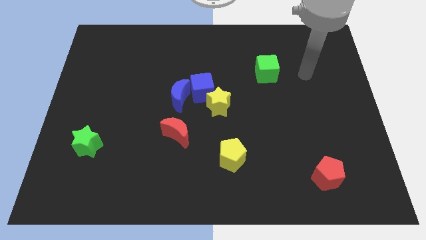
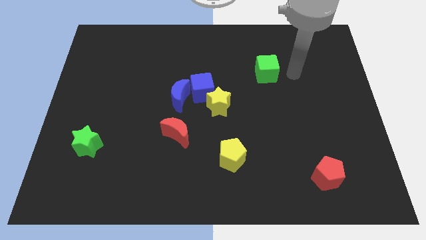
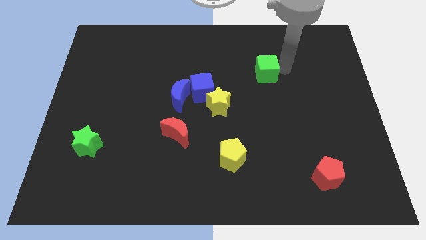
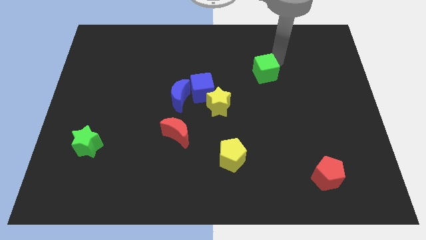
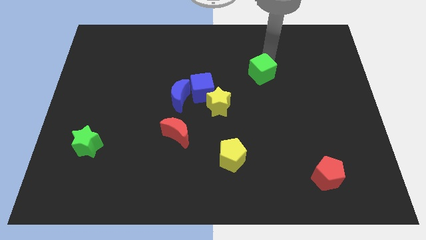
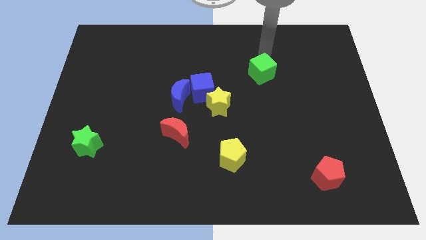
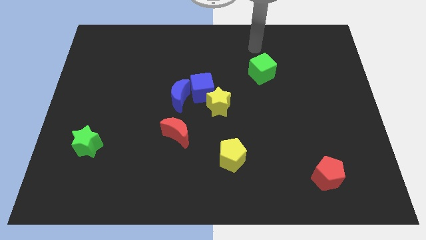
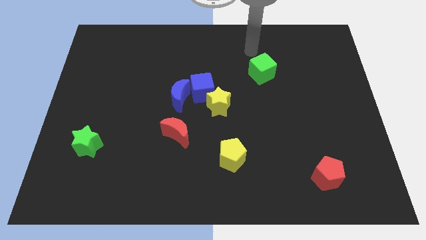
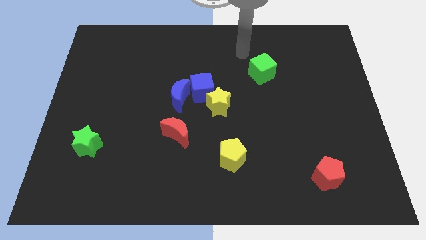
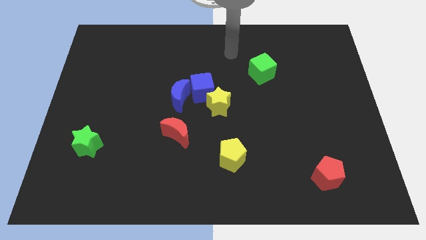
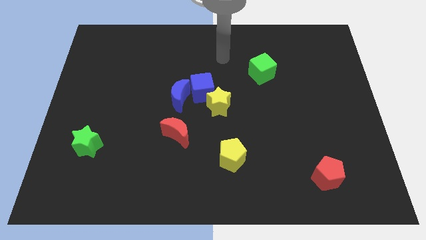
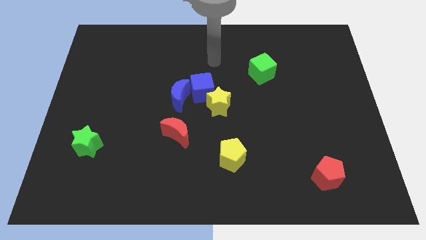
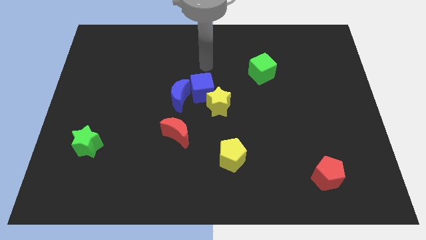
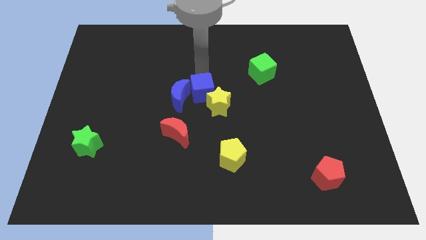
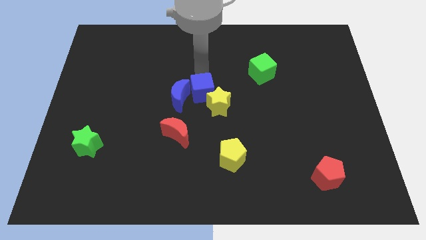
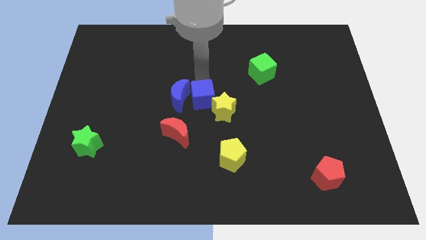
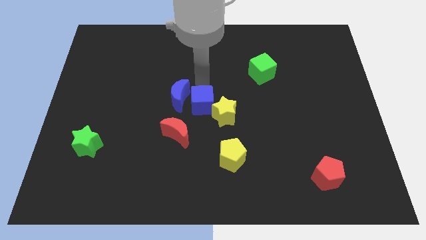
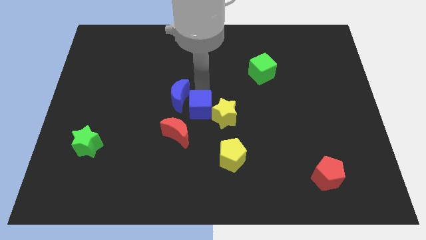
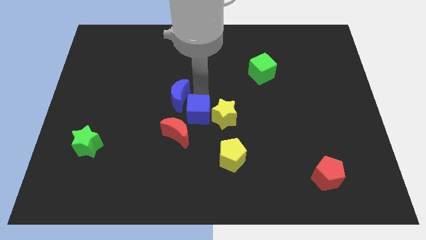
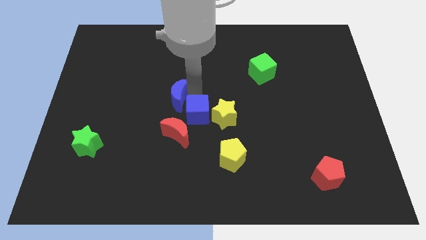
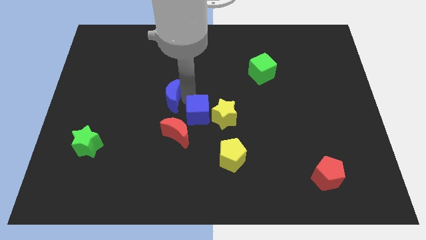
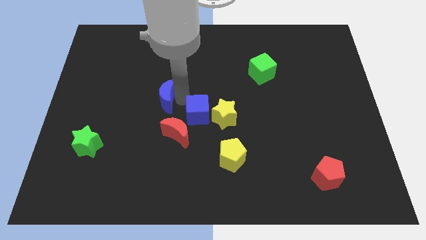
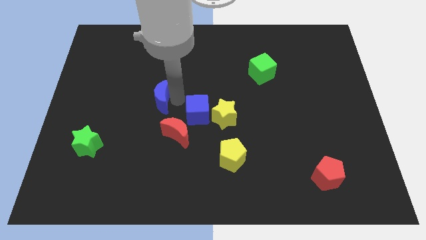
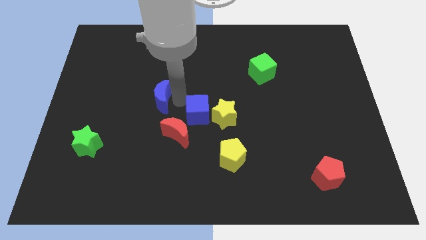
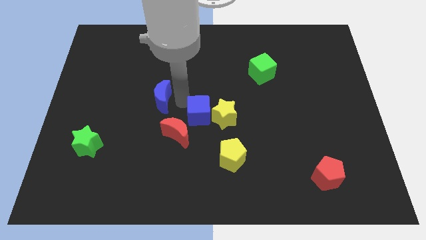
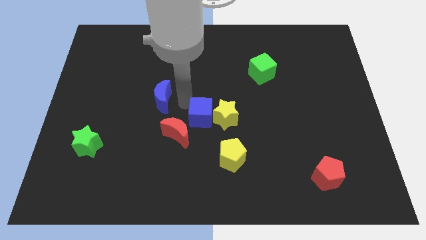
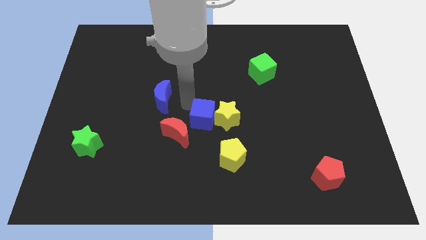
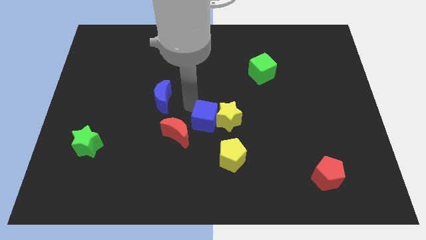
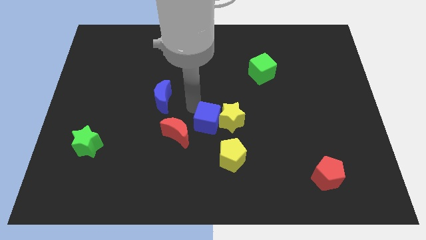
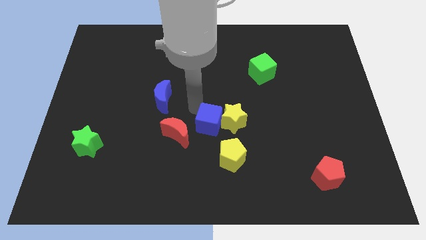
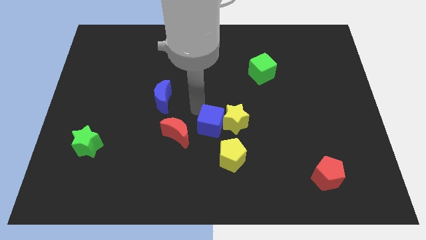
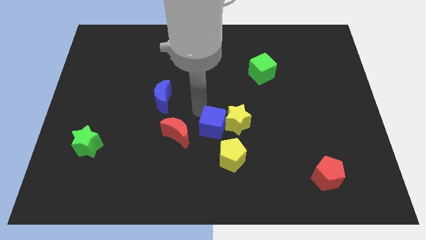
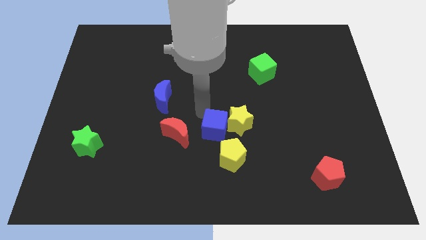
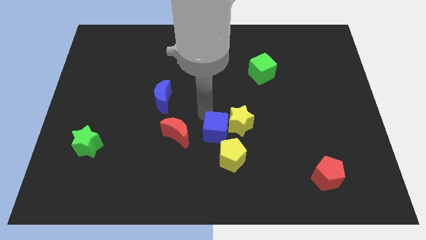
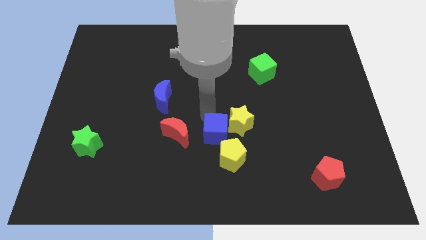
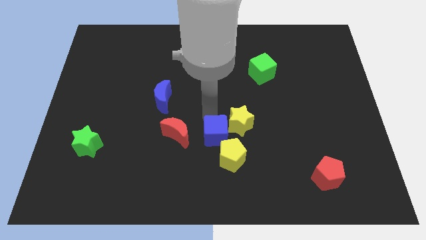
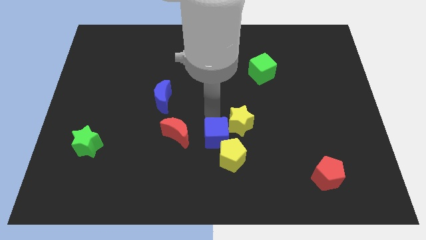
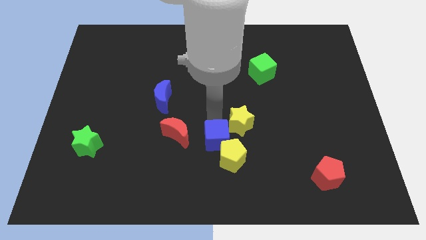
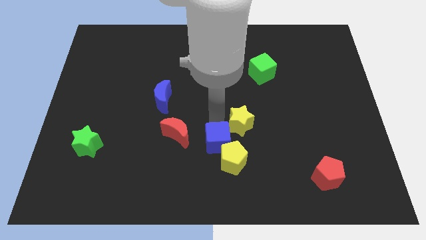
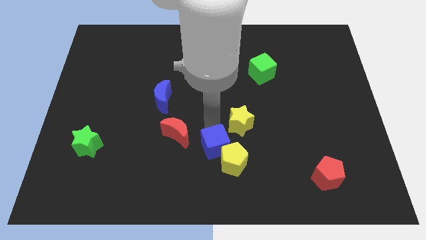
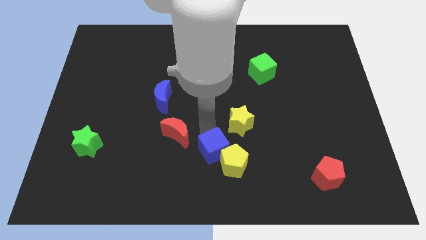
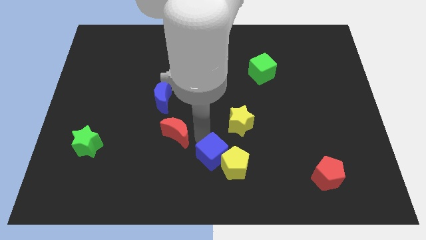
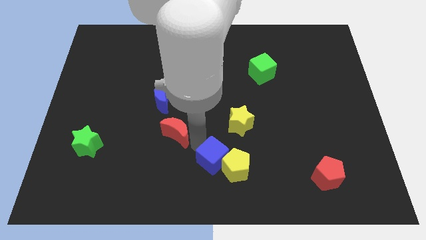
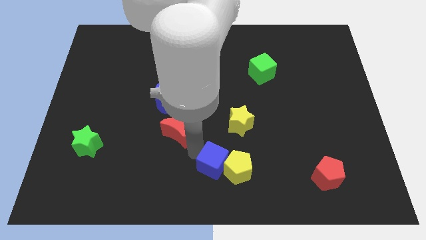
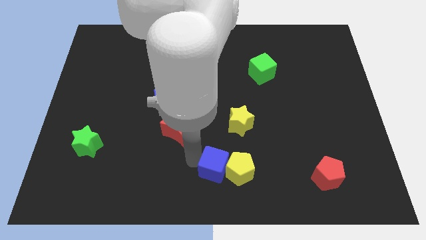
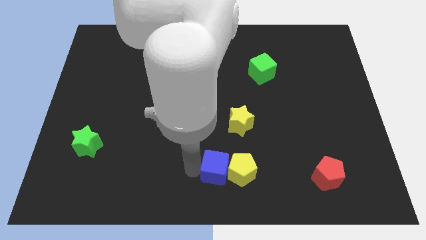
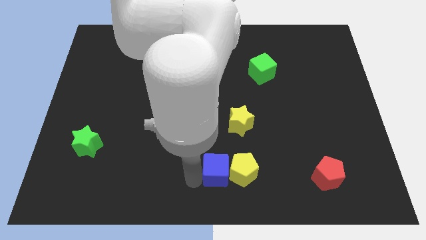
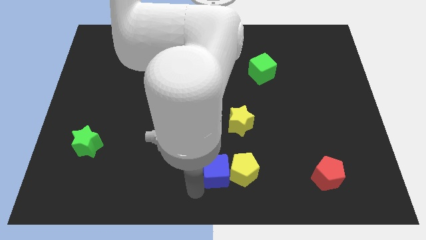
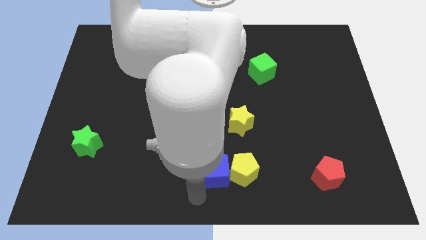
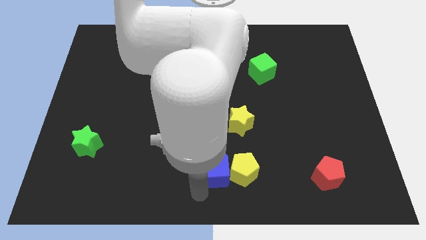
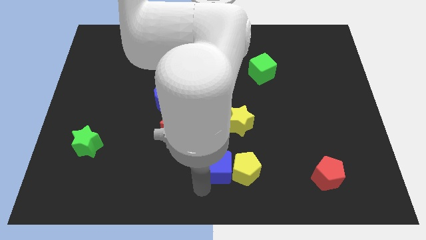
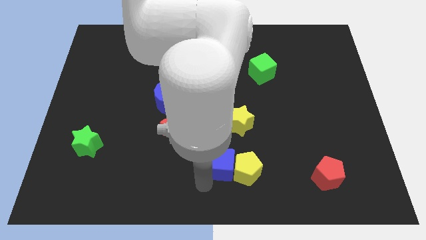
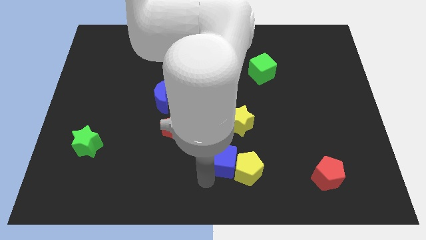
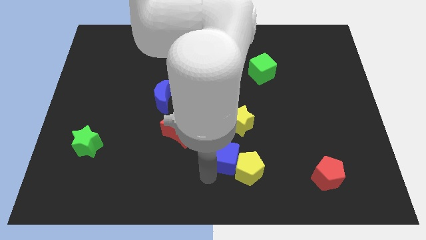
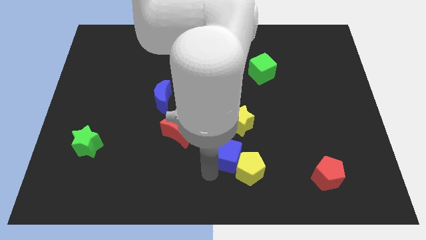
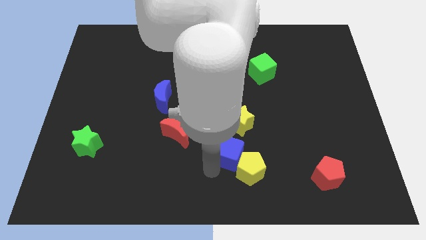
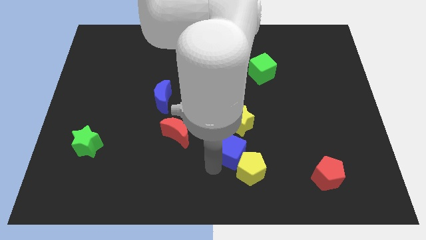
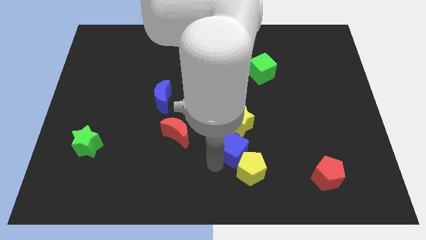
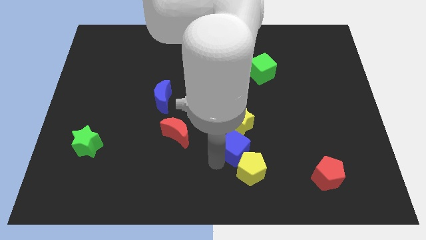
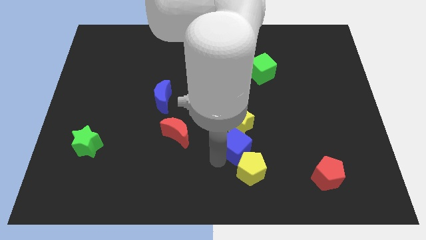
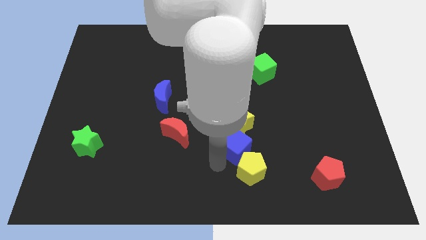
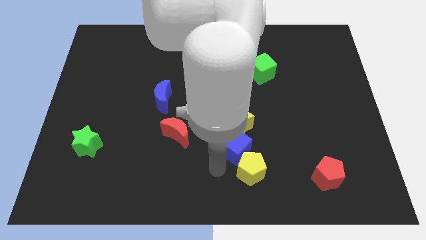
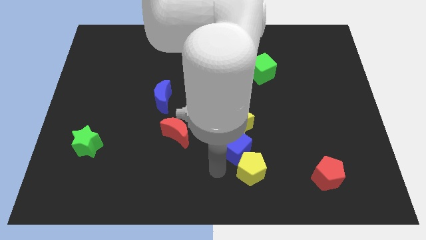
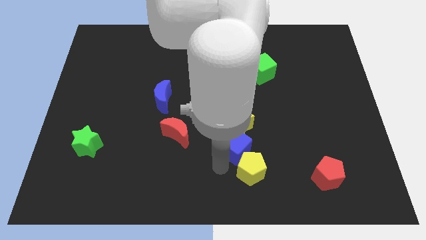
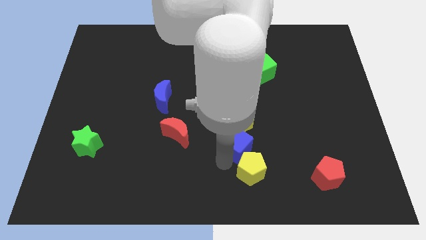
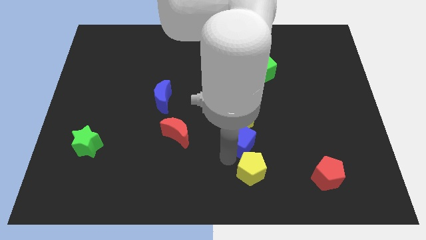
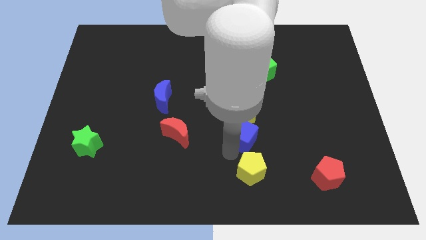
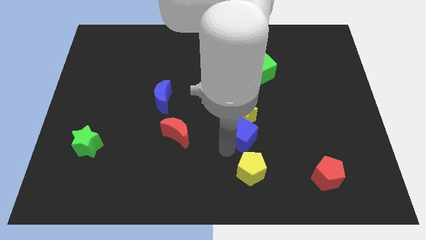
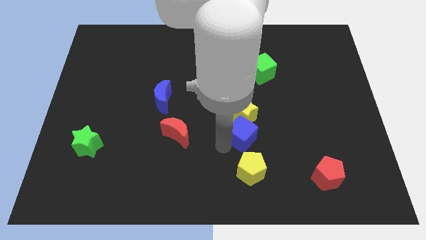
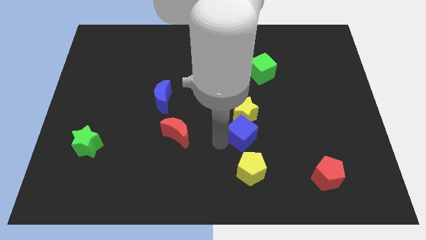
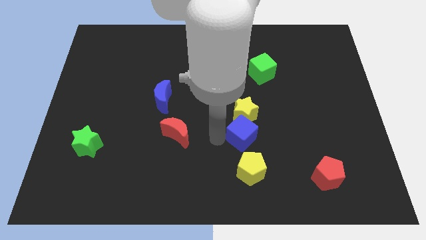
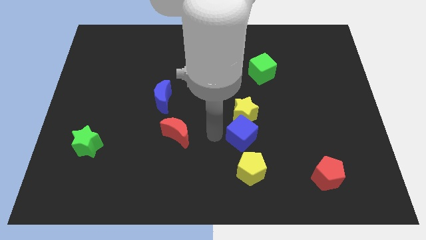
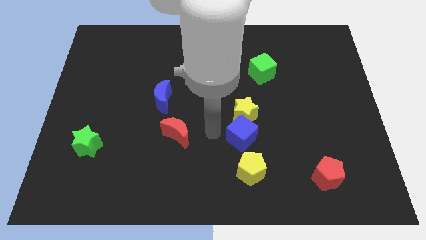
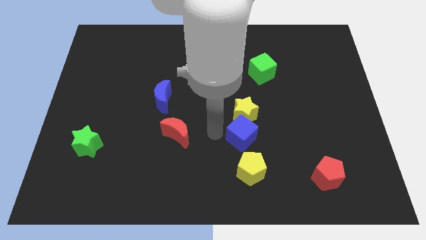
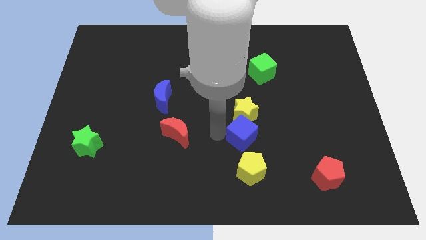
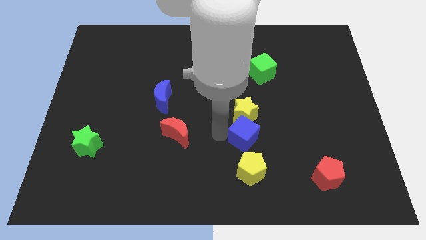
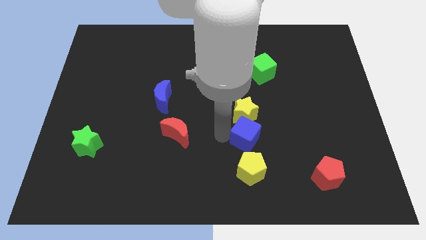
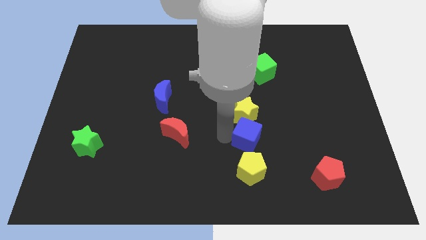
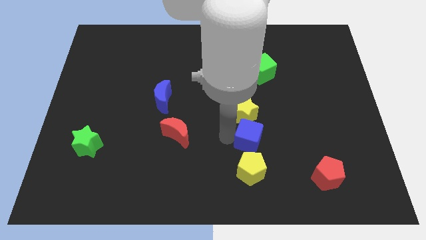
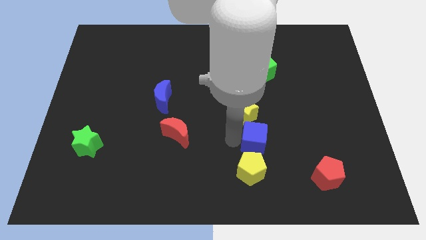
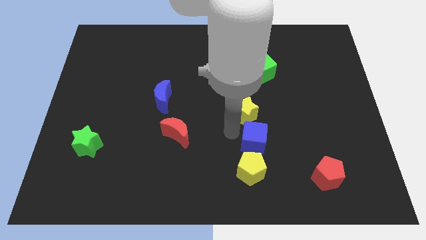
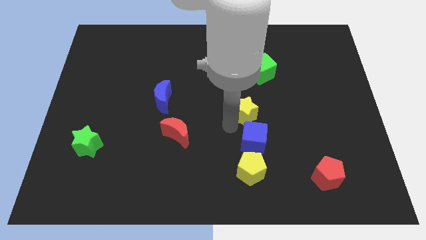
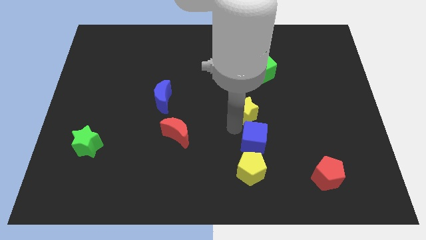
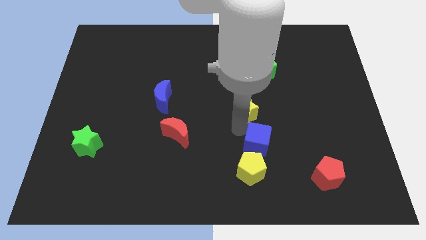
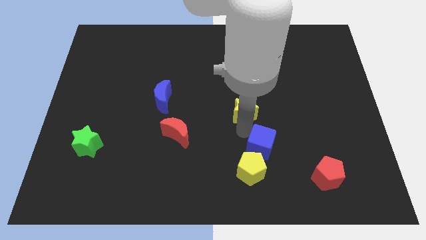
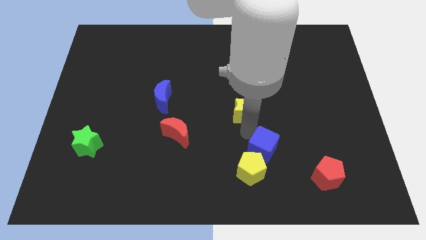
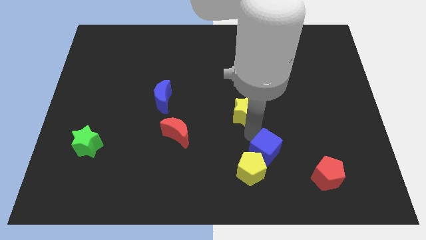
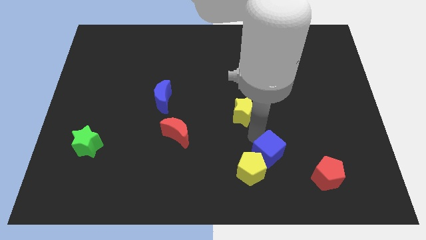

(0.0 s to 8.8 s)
put the blue cube to the right of the yellow pentagon
